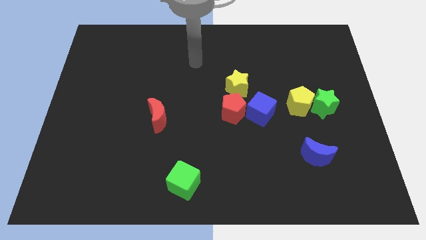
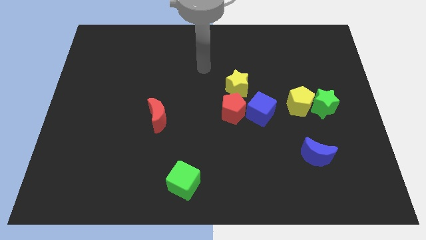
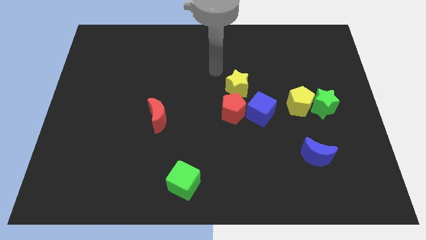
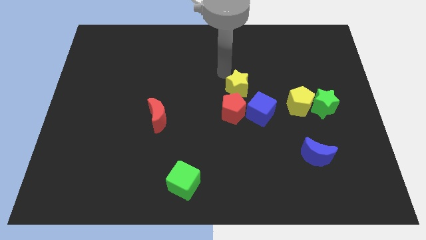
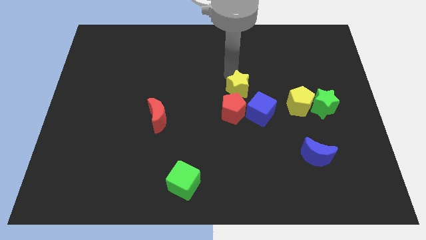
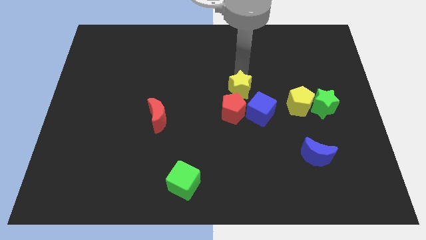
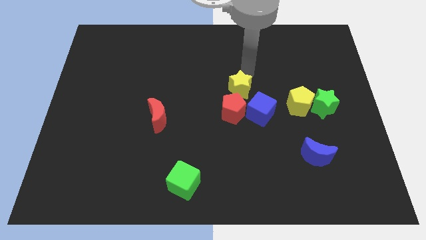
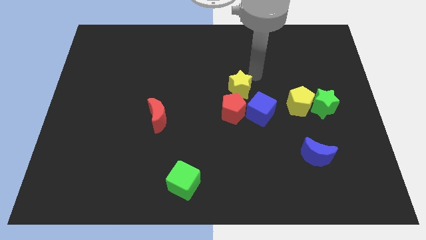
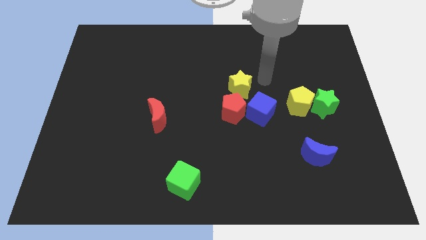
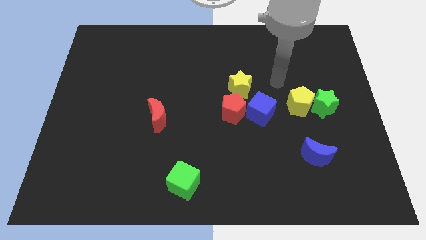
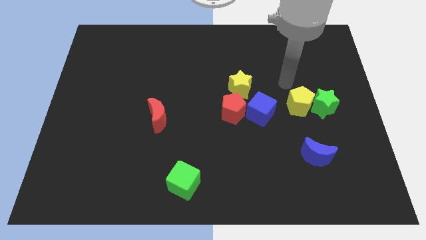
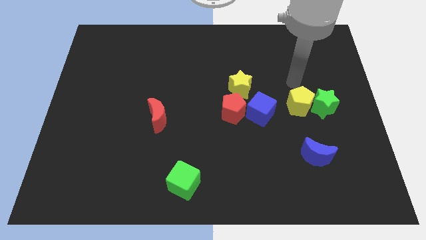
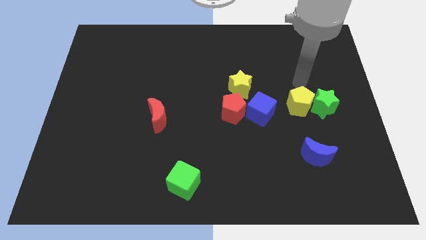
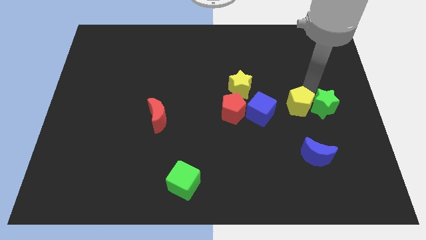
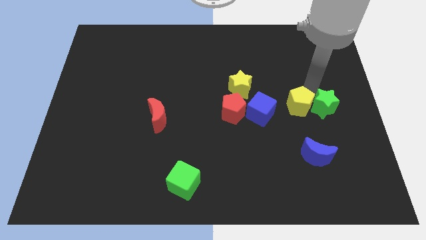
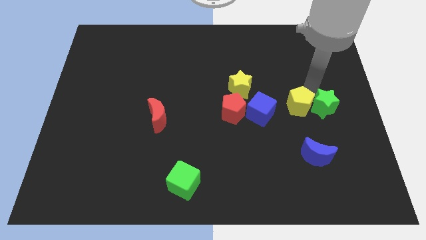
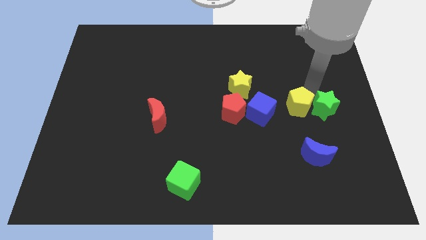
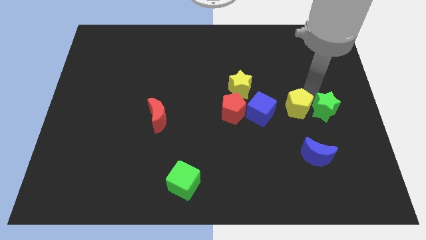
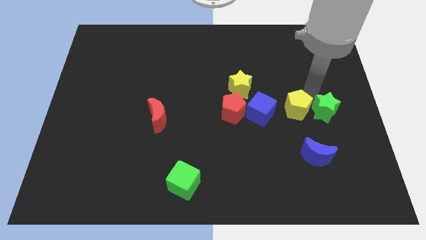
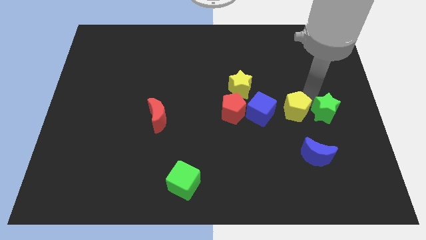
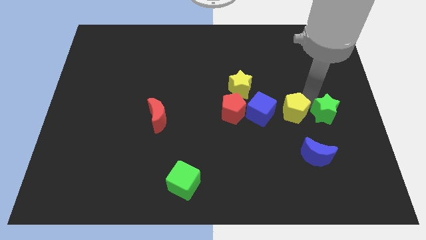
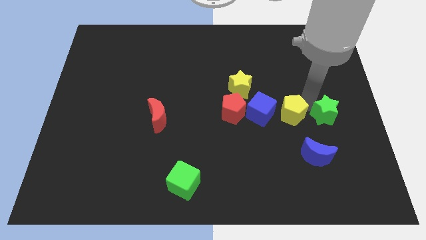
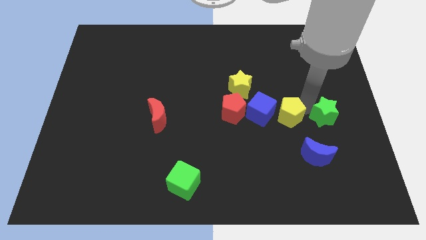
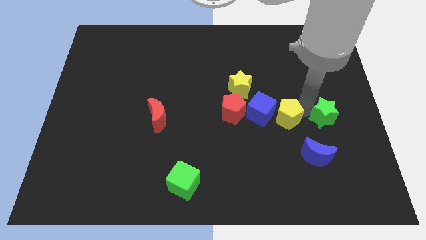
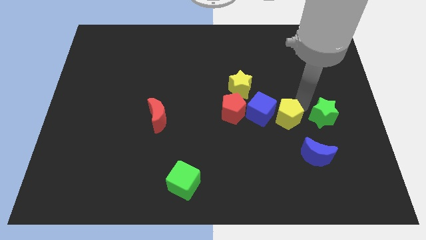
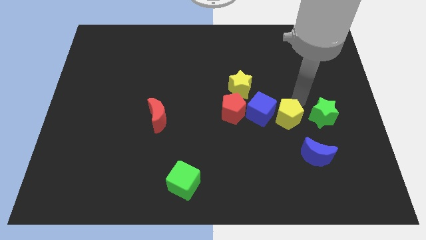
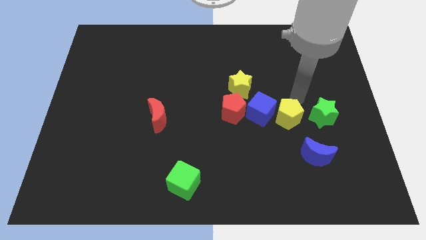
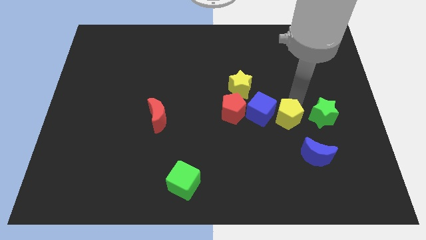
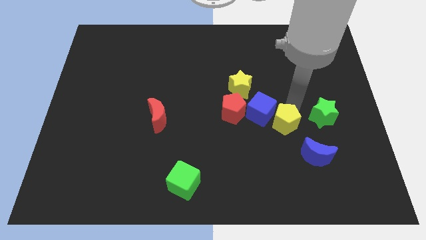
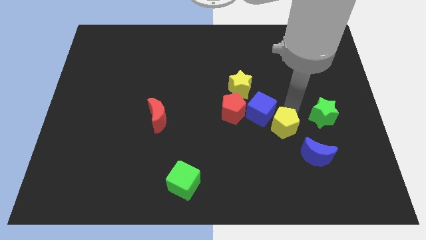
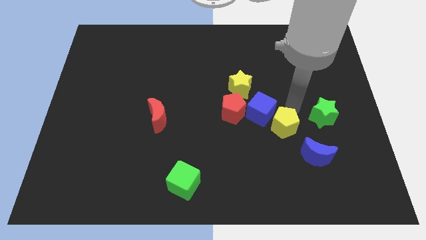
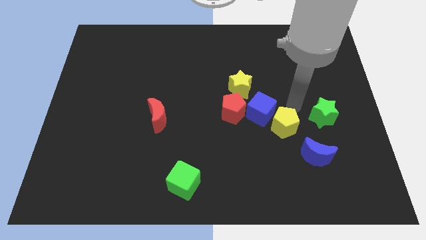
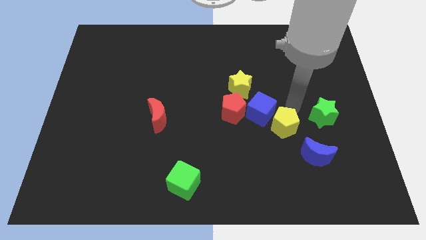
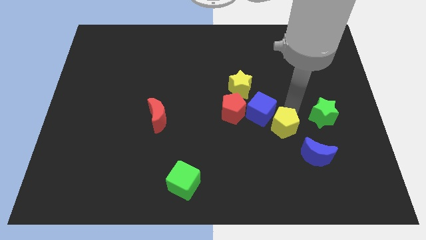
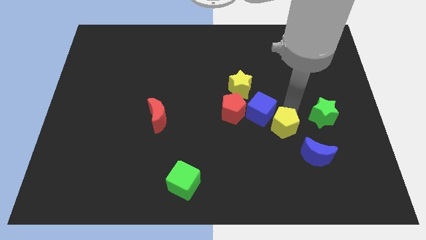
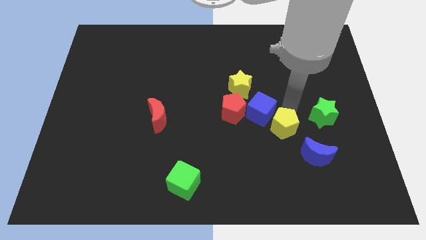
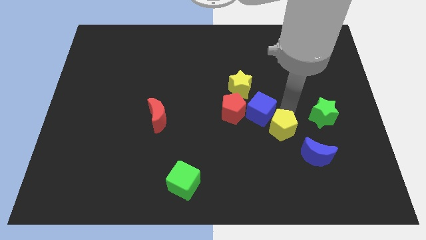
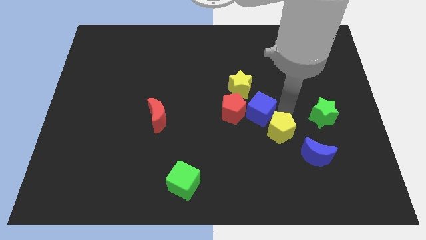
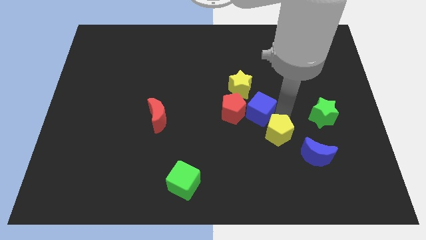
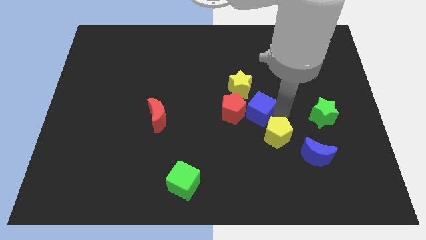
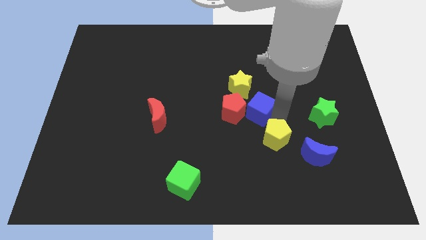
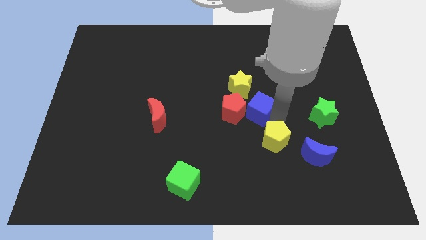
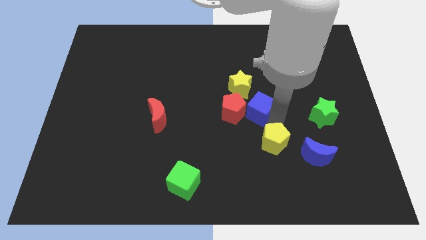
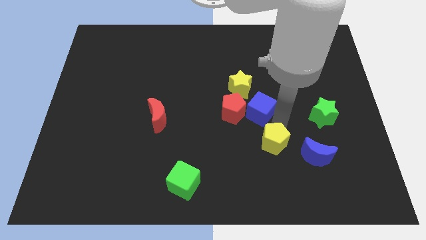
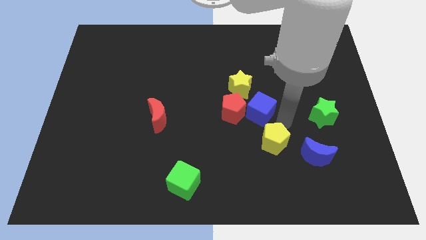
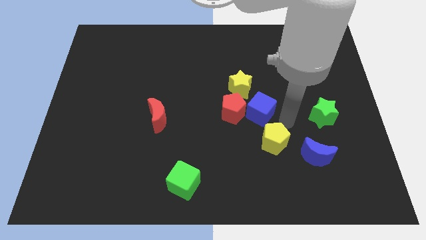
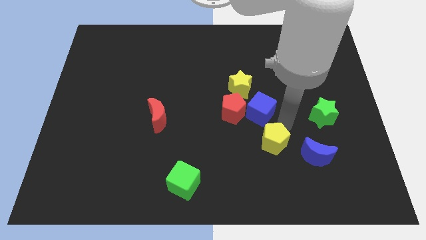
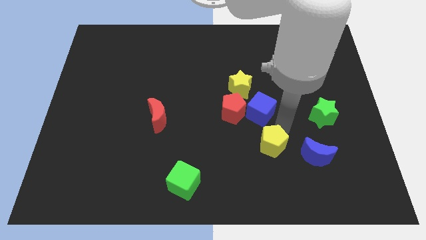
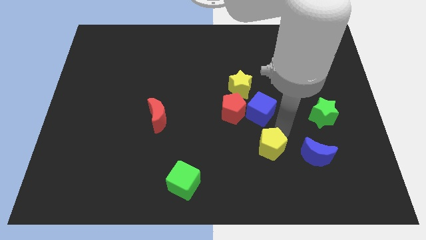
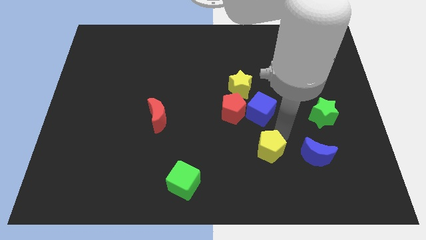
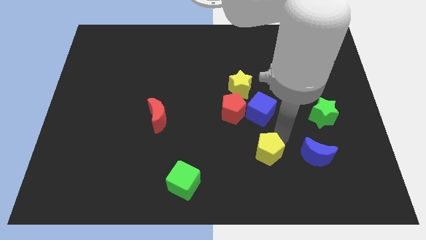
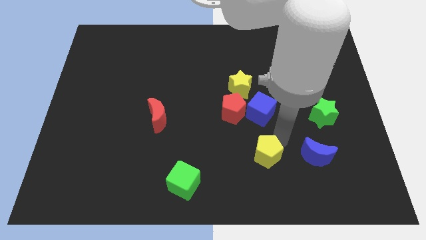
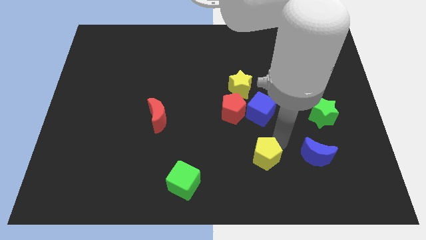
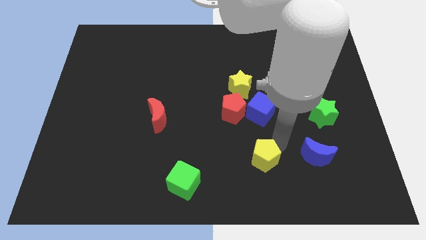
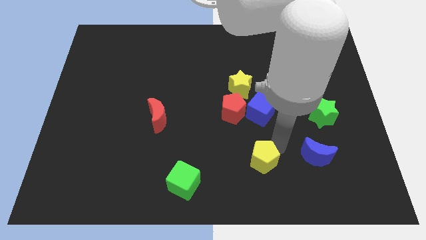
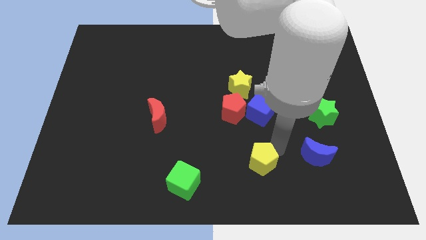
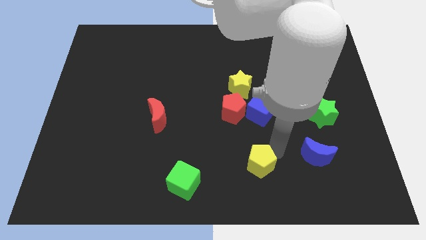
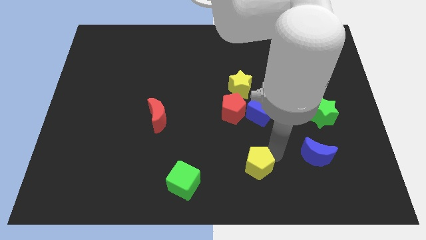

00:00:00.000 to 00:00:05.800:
move the yellow pentagon to the bottom side

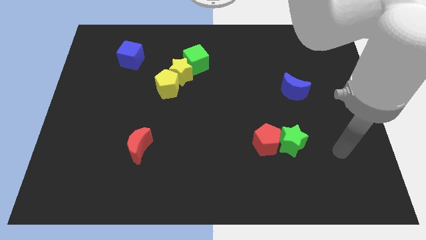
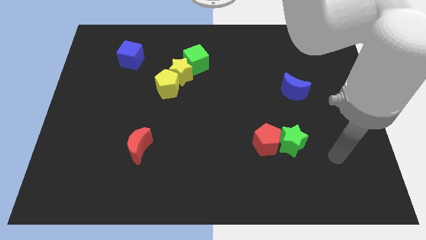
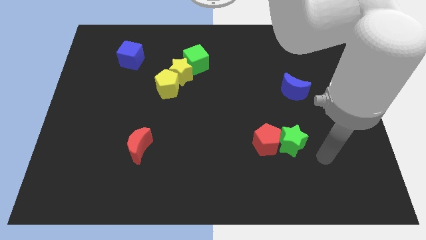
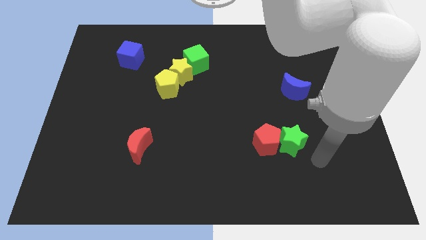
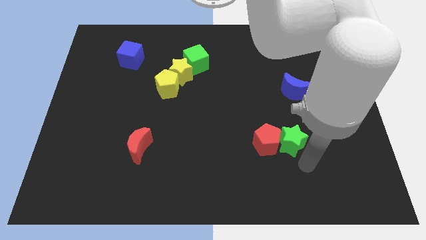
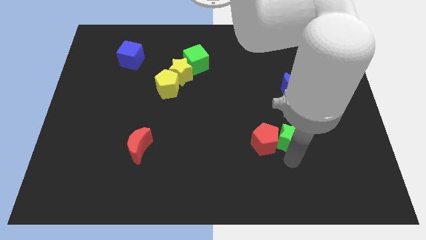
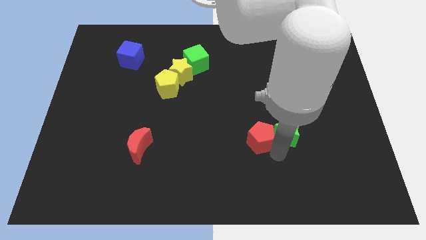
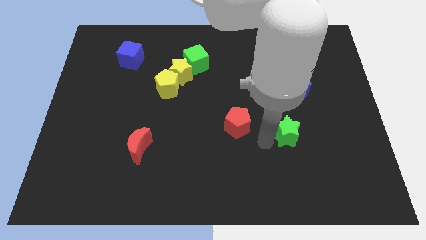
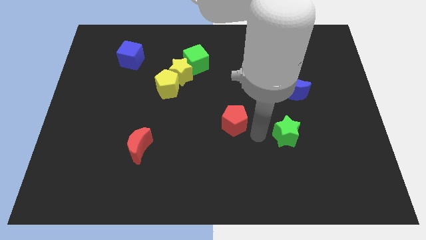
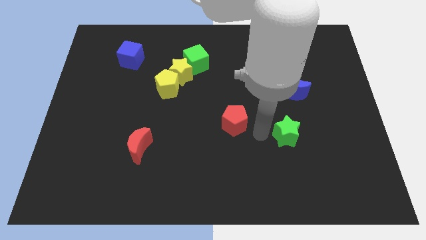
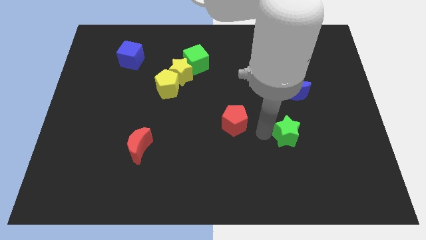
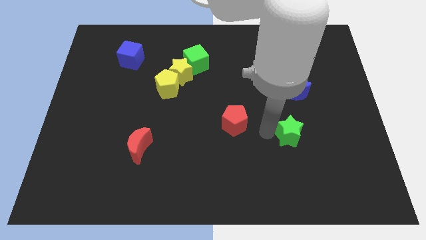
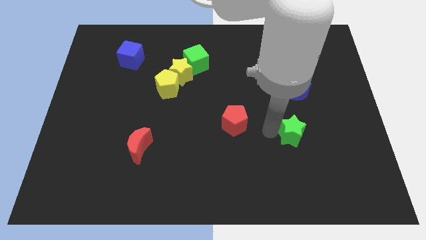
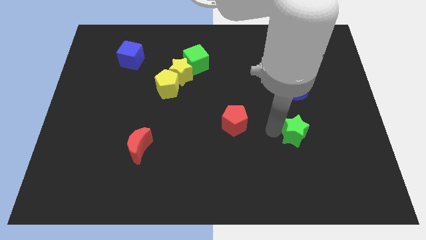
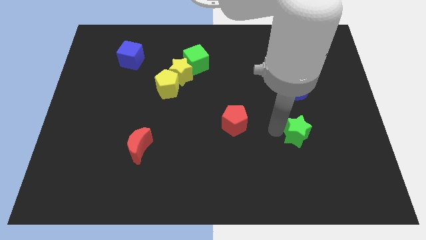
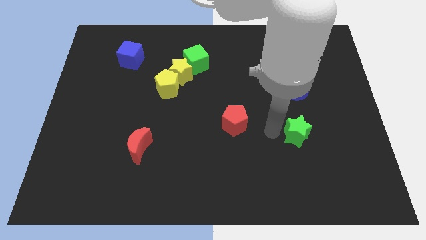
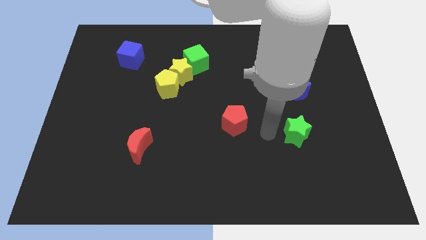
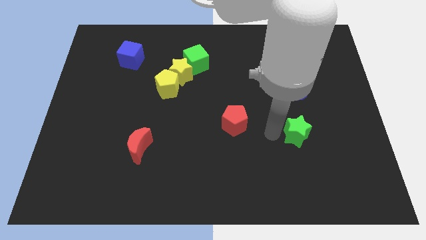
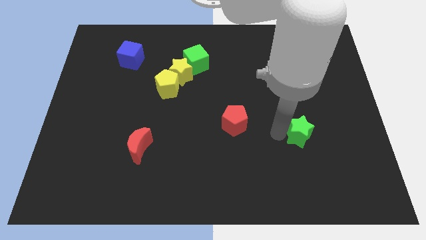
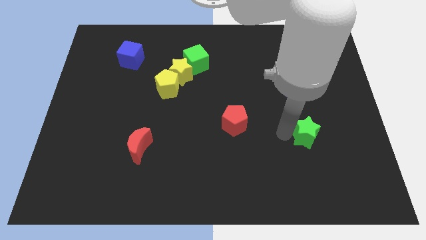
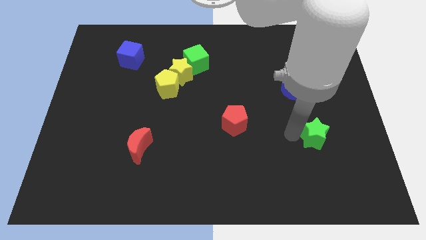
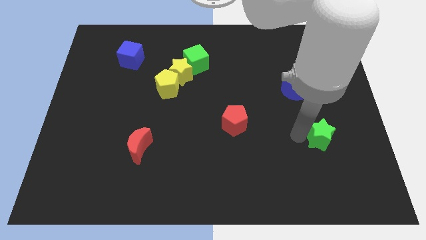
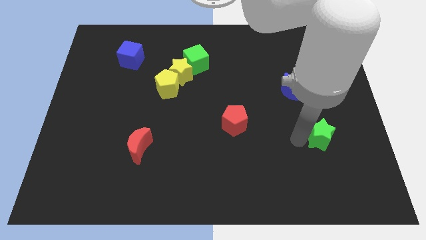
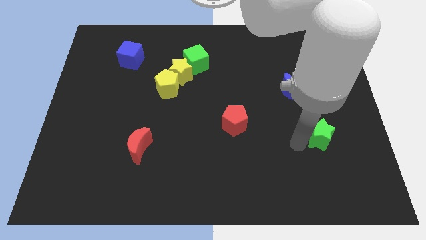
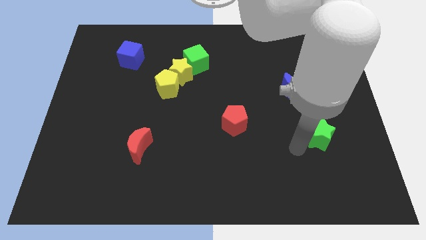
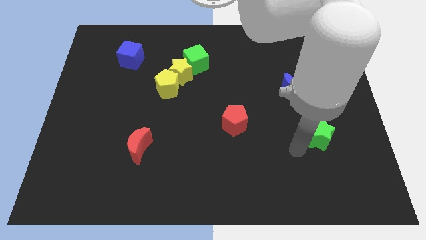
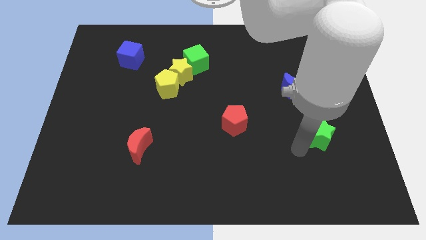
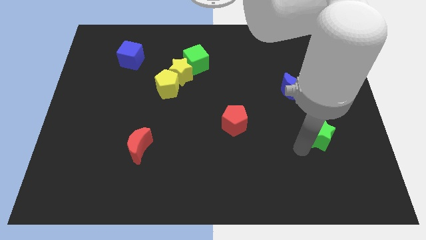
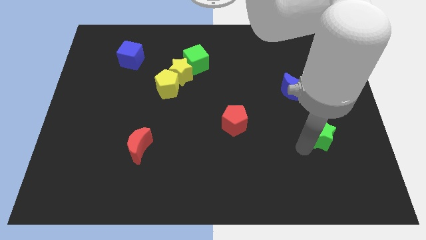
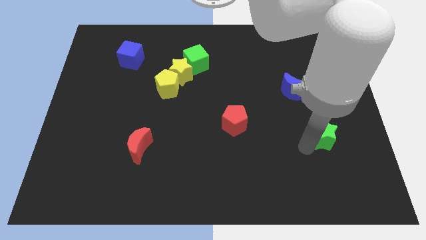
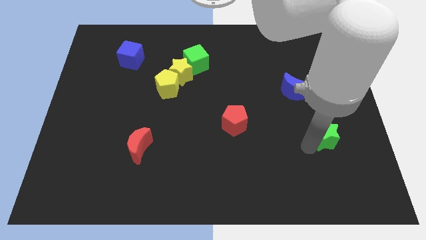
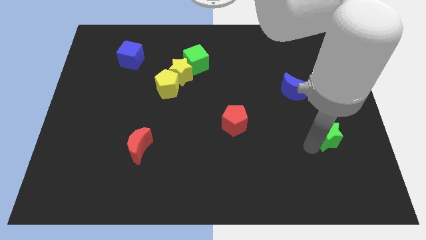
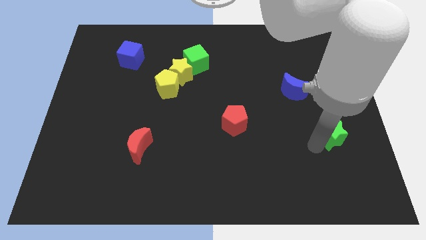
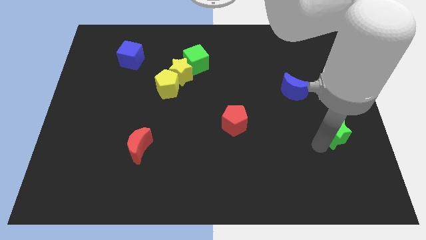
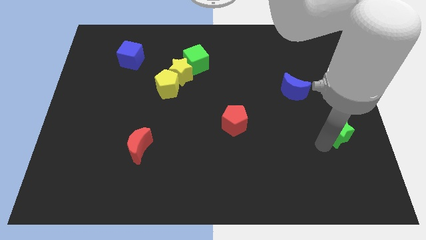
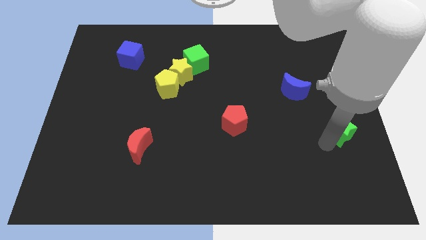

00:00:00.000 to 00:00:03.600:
put the green star to the right side of the board
